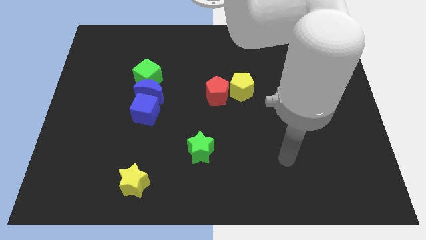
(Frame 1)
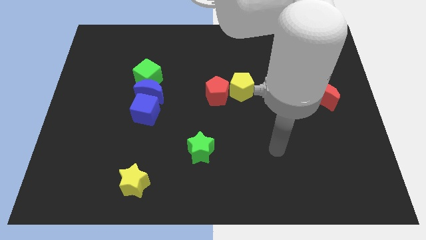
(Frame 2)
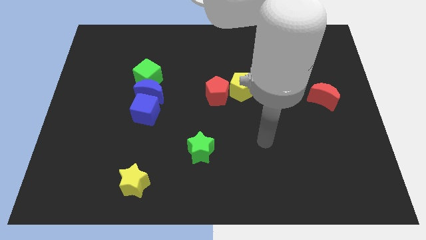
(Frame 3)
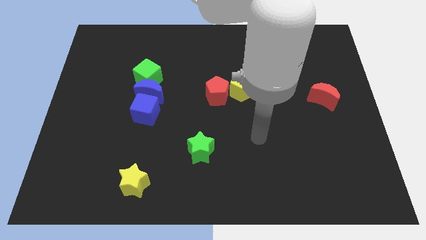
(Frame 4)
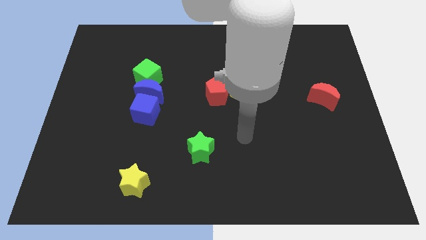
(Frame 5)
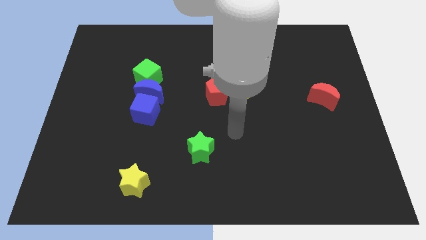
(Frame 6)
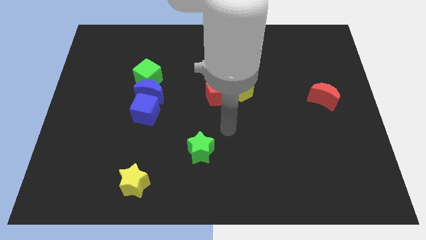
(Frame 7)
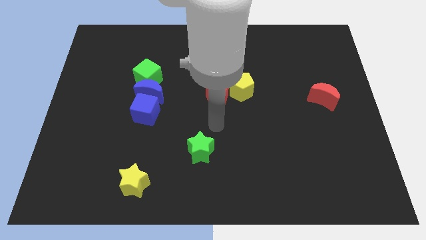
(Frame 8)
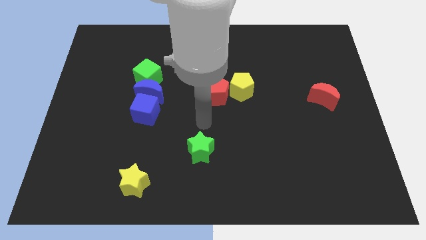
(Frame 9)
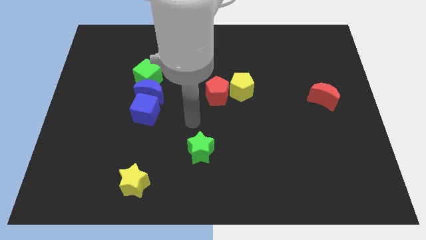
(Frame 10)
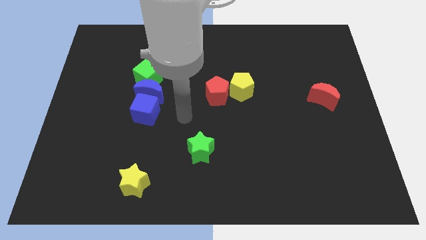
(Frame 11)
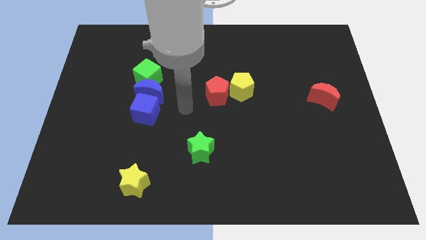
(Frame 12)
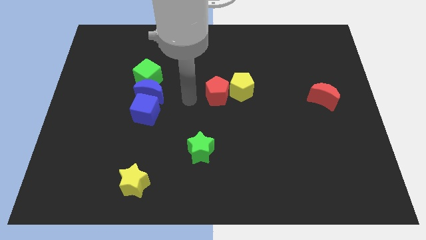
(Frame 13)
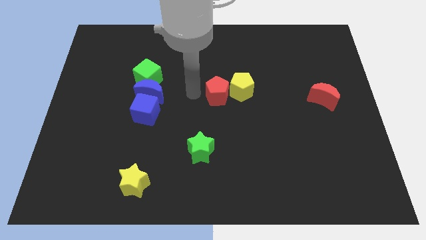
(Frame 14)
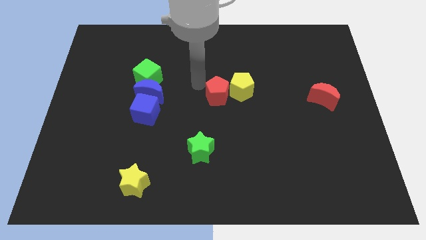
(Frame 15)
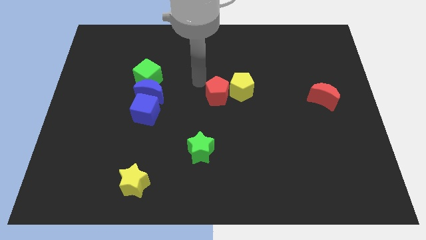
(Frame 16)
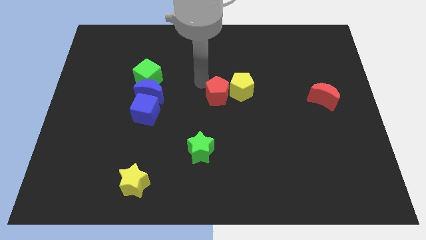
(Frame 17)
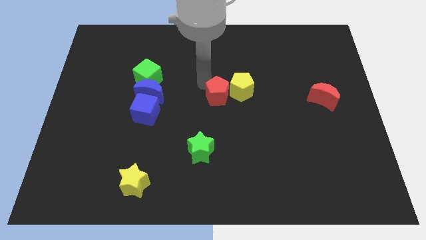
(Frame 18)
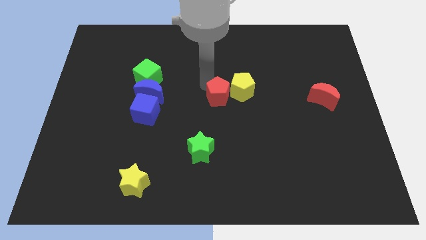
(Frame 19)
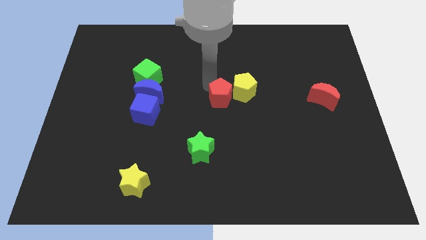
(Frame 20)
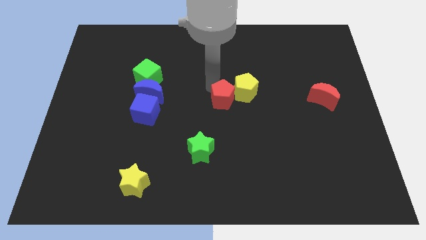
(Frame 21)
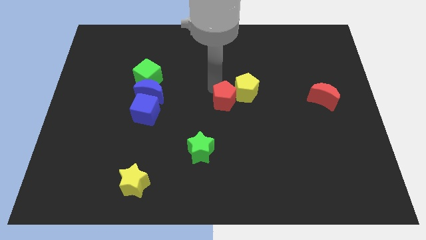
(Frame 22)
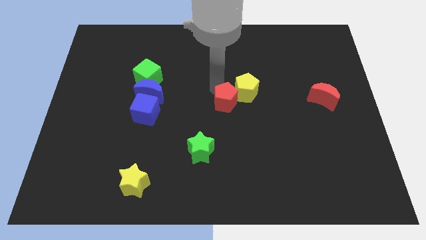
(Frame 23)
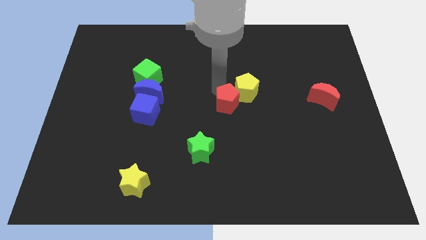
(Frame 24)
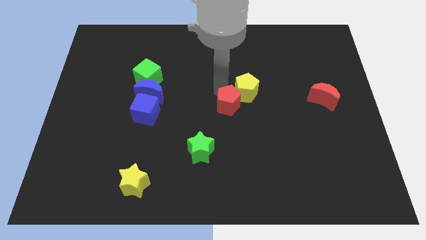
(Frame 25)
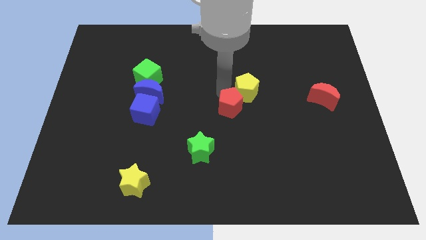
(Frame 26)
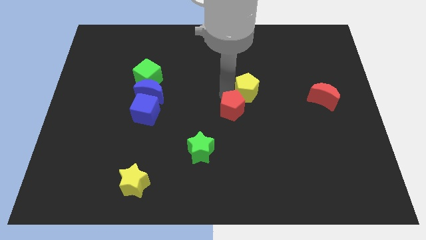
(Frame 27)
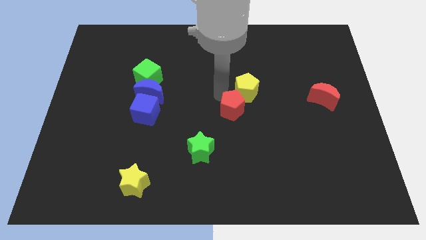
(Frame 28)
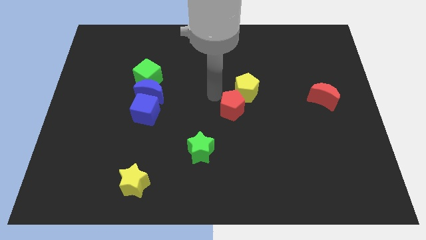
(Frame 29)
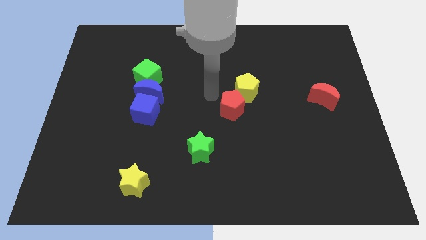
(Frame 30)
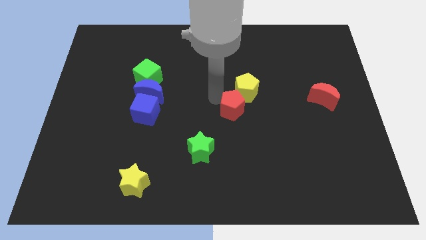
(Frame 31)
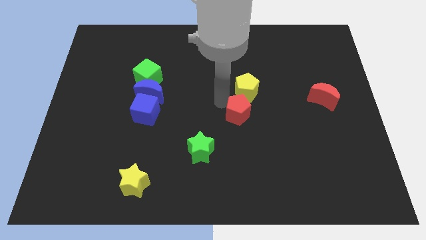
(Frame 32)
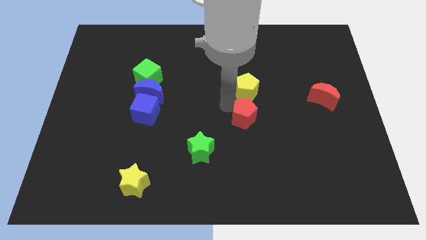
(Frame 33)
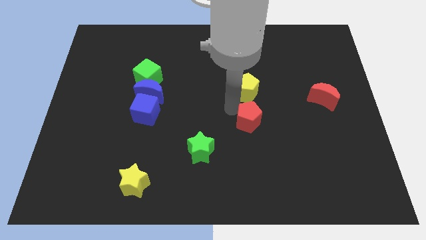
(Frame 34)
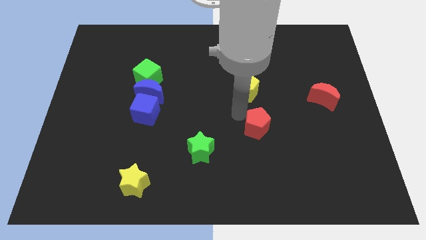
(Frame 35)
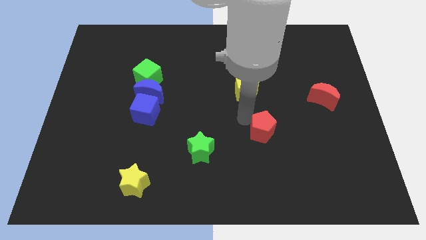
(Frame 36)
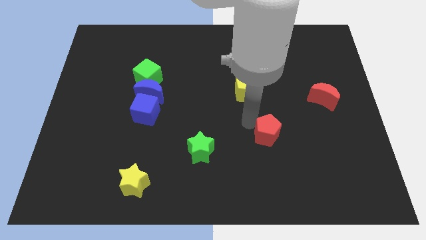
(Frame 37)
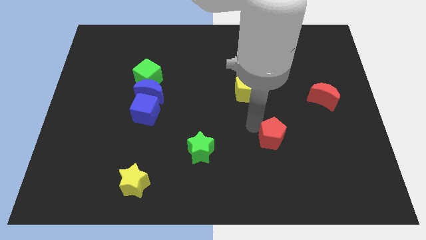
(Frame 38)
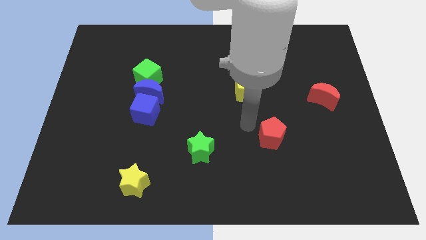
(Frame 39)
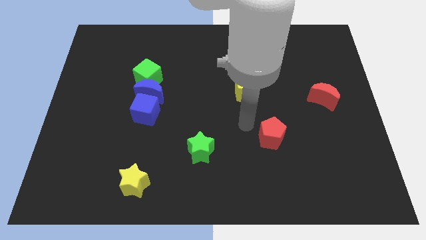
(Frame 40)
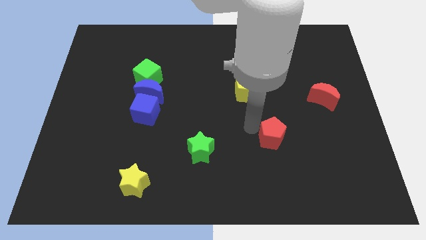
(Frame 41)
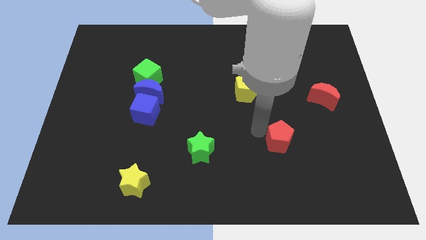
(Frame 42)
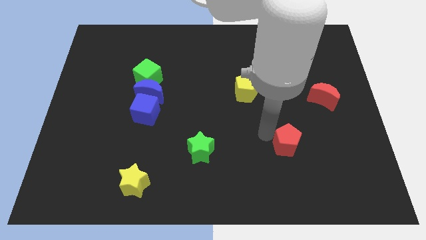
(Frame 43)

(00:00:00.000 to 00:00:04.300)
push the red pentagon down and to the right

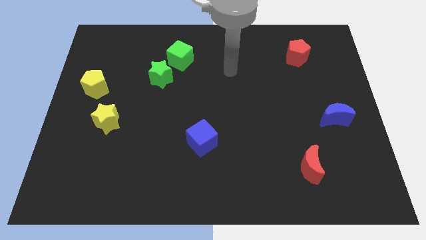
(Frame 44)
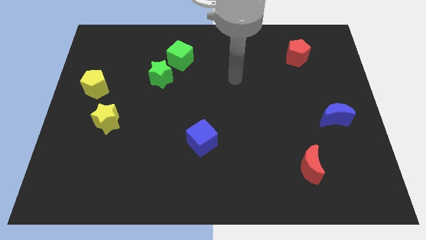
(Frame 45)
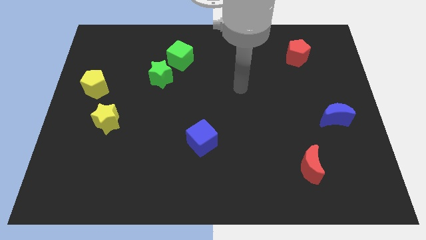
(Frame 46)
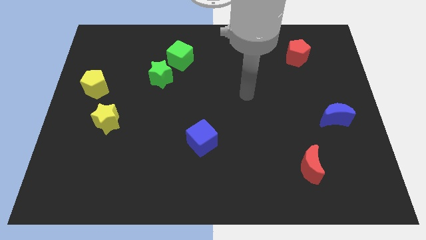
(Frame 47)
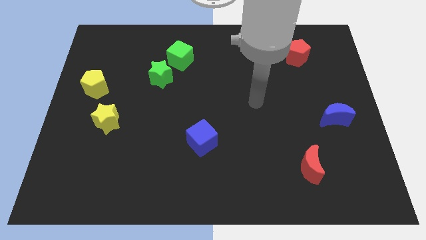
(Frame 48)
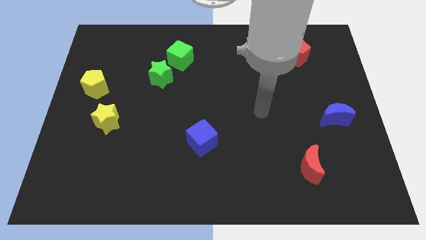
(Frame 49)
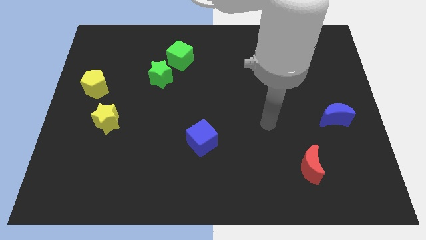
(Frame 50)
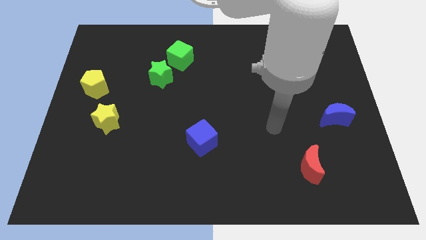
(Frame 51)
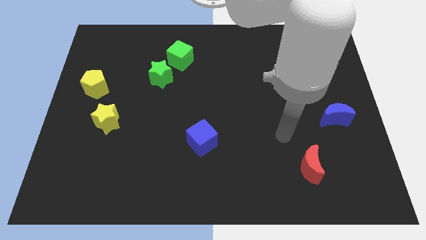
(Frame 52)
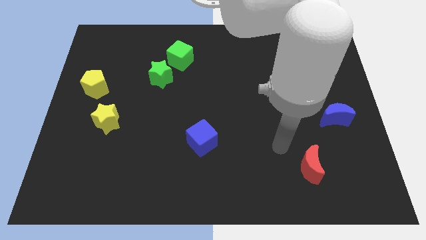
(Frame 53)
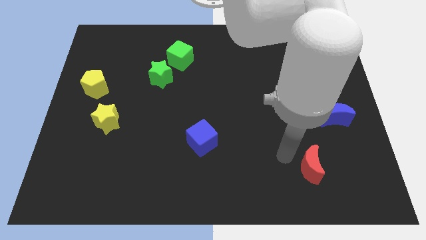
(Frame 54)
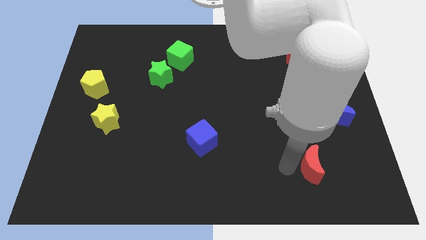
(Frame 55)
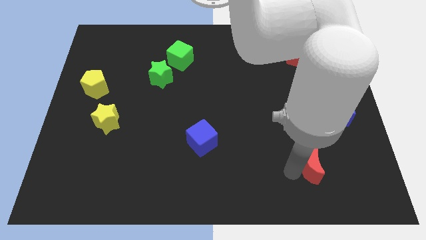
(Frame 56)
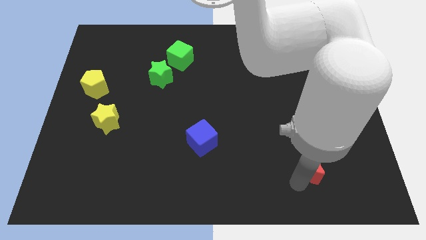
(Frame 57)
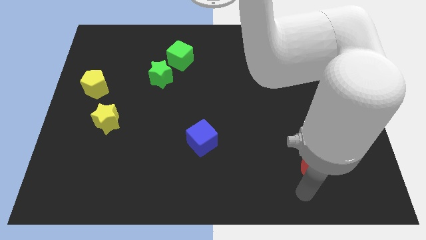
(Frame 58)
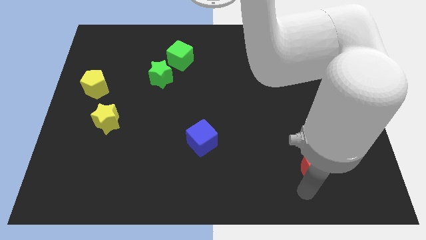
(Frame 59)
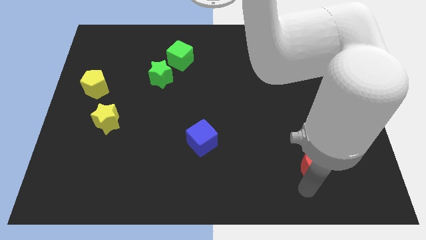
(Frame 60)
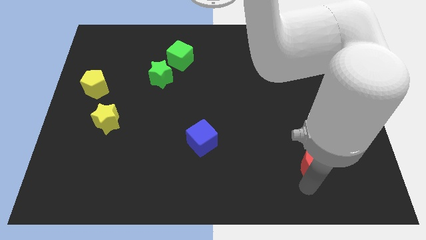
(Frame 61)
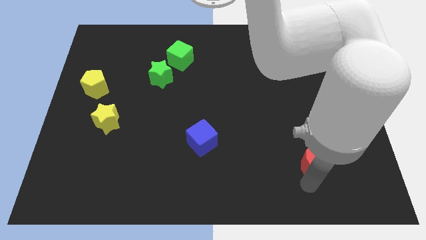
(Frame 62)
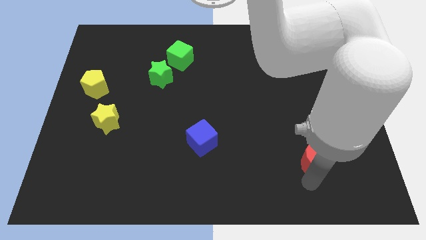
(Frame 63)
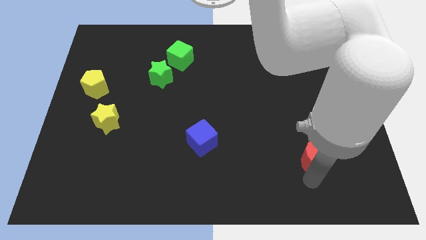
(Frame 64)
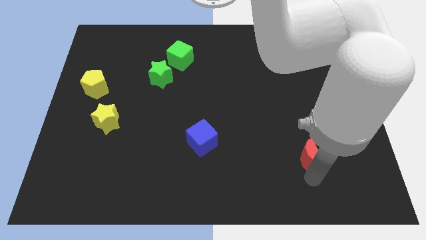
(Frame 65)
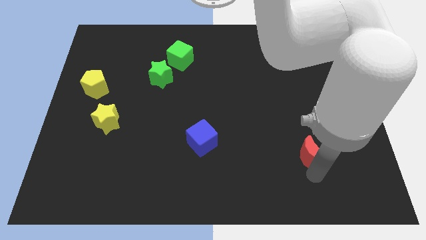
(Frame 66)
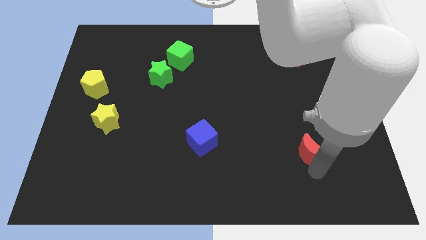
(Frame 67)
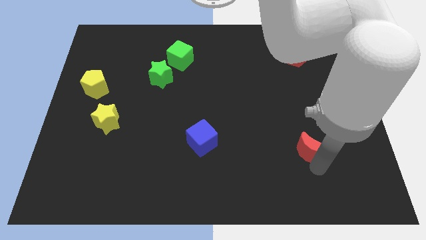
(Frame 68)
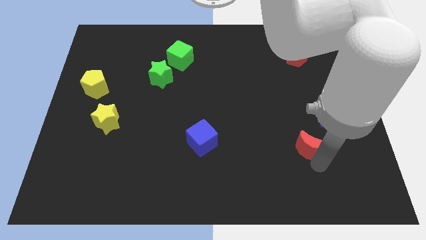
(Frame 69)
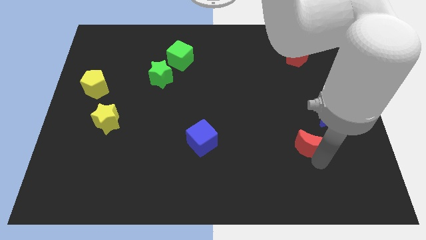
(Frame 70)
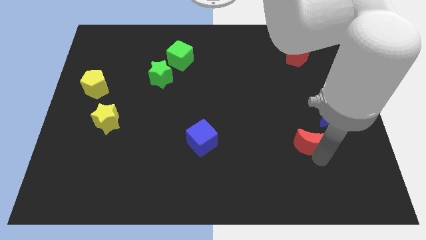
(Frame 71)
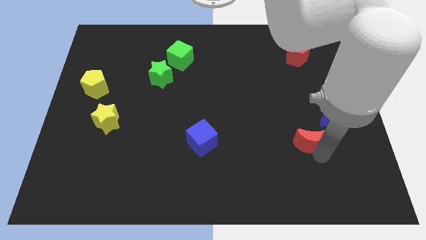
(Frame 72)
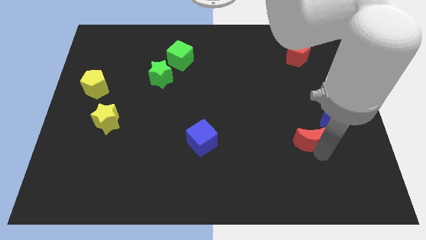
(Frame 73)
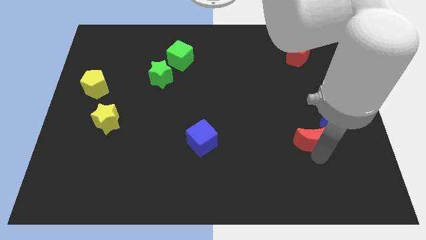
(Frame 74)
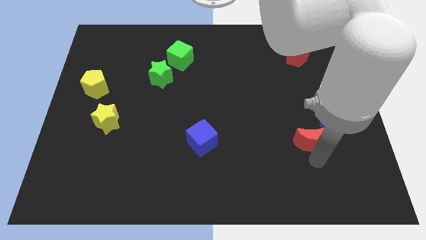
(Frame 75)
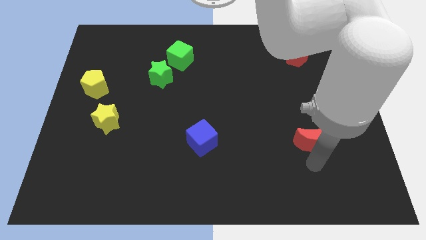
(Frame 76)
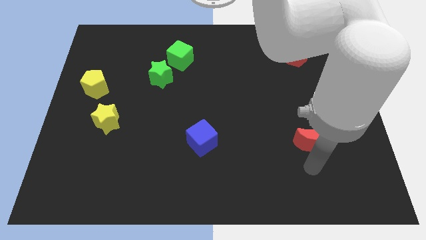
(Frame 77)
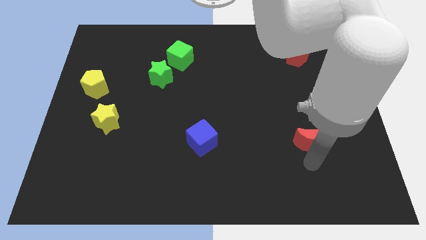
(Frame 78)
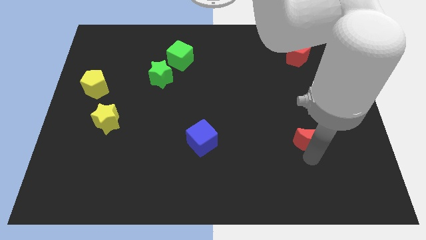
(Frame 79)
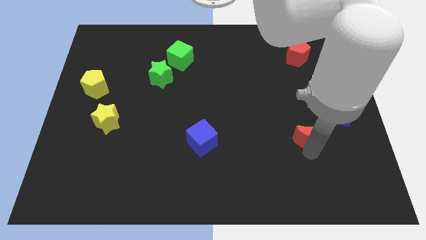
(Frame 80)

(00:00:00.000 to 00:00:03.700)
slide the red moon a bit upwards
